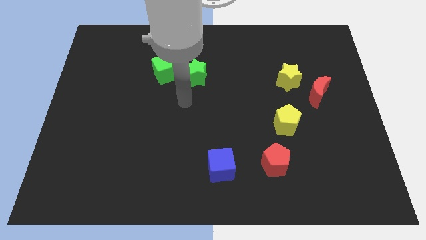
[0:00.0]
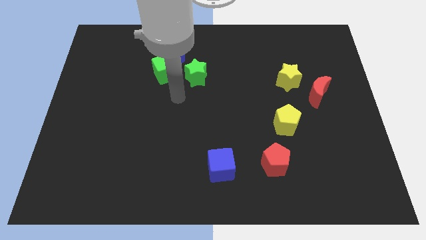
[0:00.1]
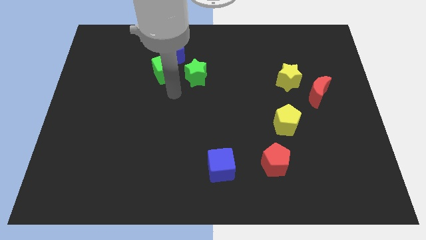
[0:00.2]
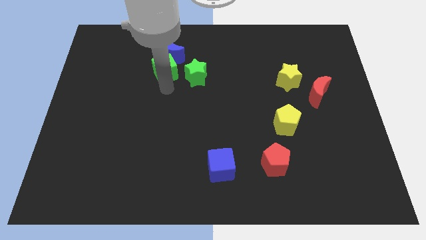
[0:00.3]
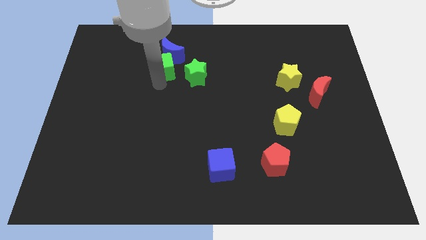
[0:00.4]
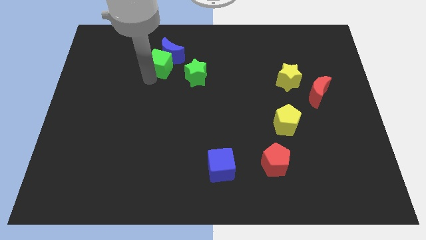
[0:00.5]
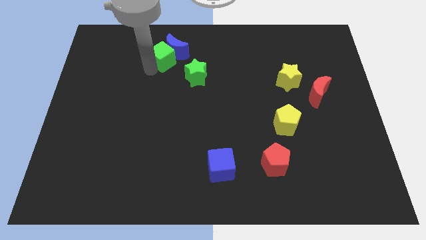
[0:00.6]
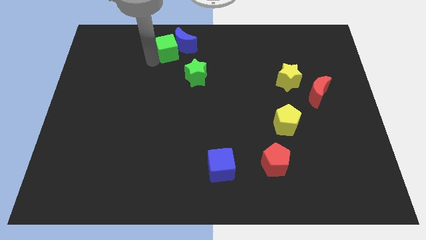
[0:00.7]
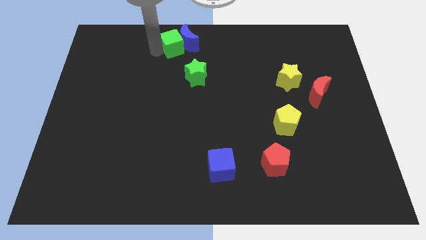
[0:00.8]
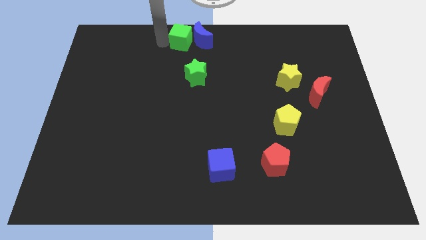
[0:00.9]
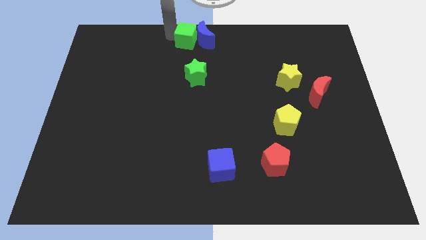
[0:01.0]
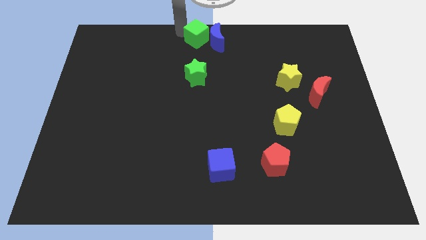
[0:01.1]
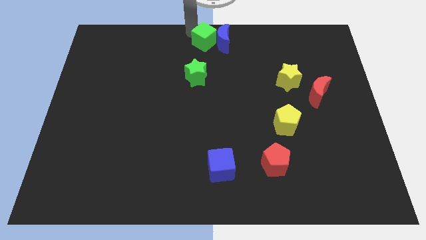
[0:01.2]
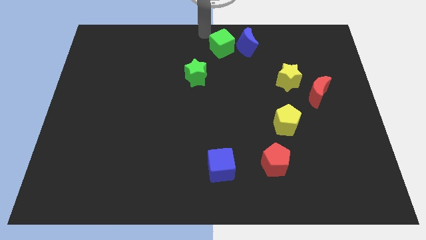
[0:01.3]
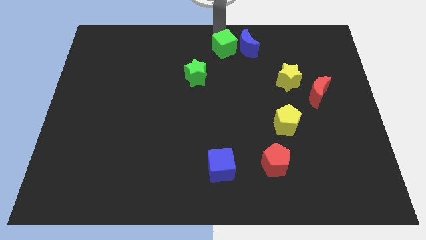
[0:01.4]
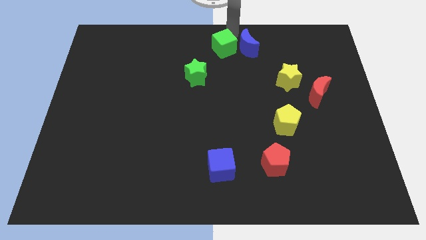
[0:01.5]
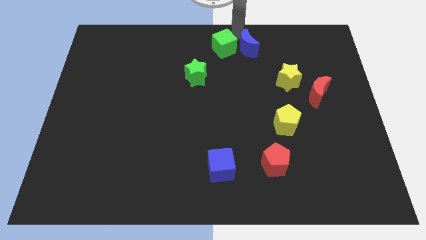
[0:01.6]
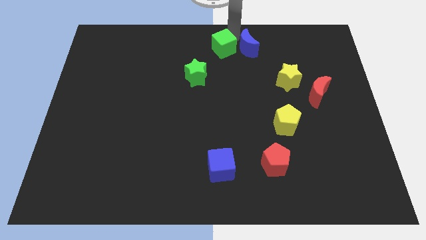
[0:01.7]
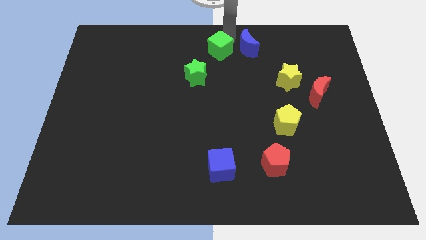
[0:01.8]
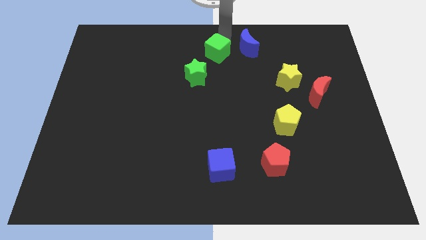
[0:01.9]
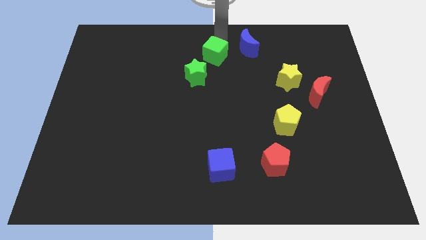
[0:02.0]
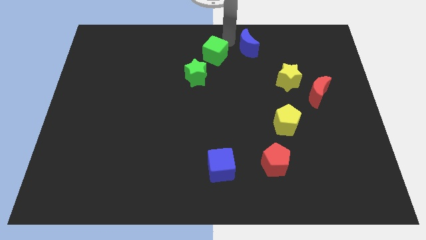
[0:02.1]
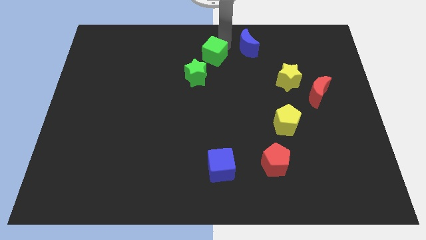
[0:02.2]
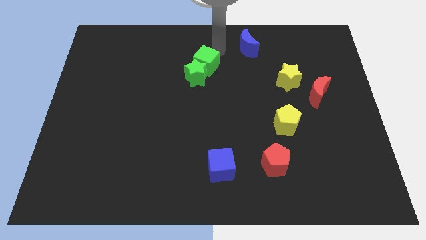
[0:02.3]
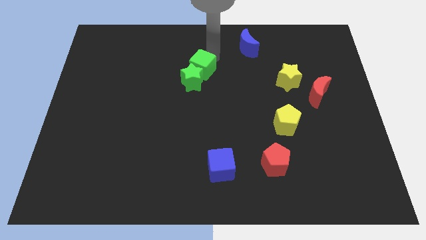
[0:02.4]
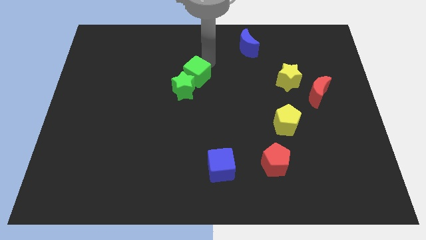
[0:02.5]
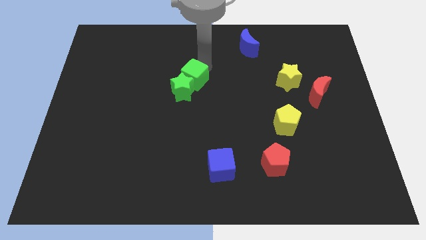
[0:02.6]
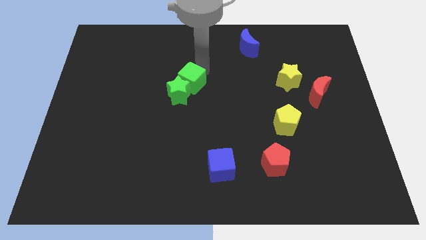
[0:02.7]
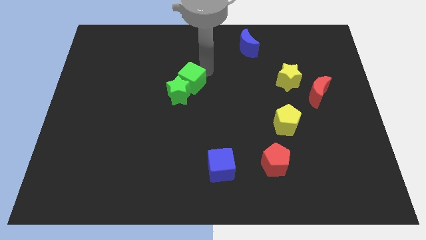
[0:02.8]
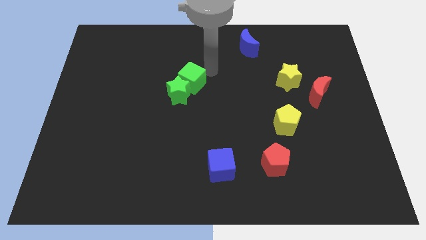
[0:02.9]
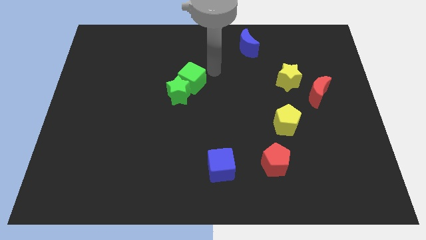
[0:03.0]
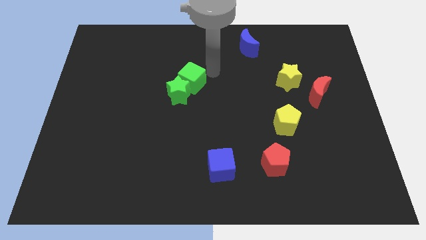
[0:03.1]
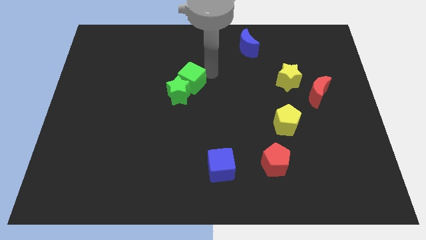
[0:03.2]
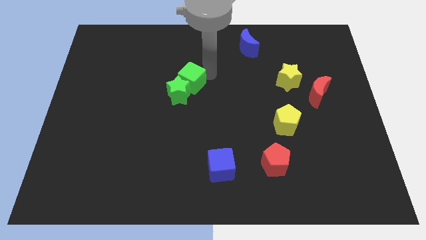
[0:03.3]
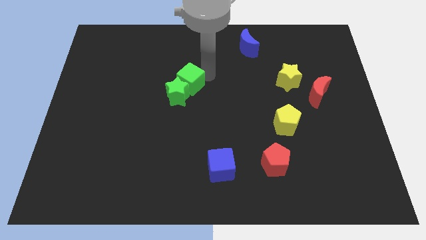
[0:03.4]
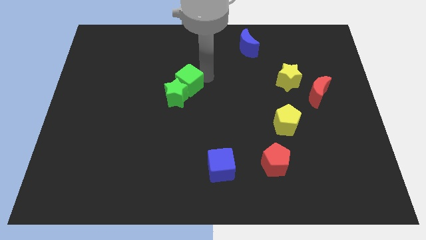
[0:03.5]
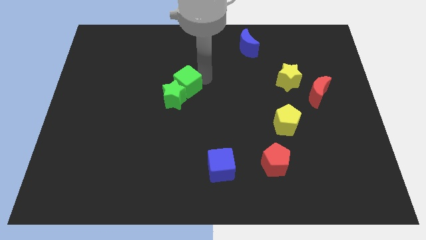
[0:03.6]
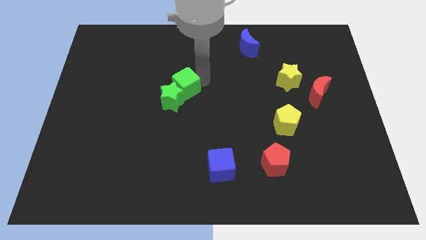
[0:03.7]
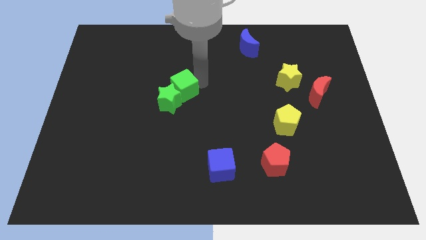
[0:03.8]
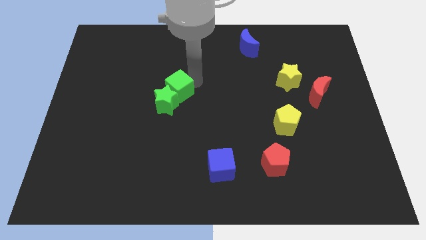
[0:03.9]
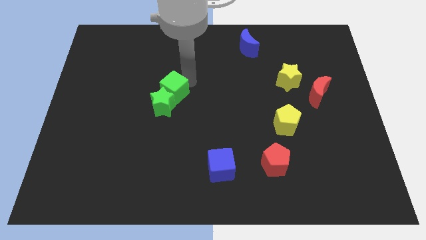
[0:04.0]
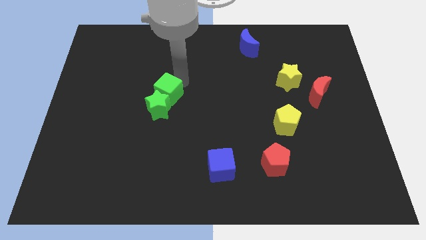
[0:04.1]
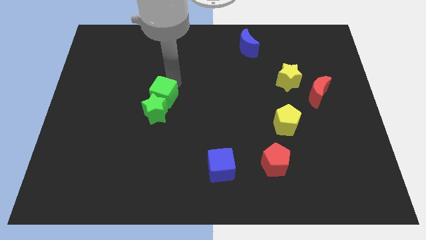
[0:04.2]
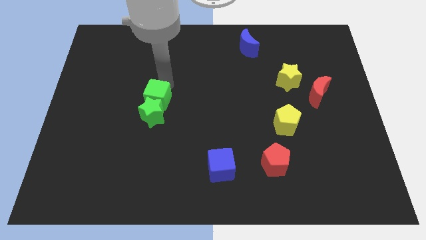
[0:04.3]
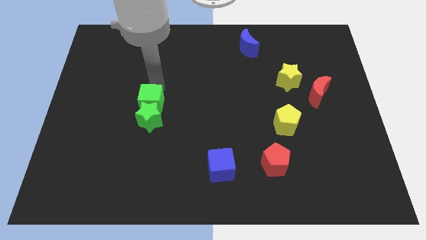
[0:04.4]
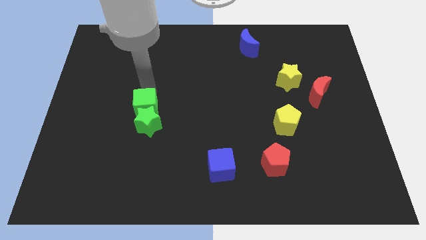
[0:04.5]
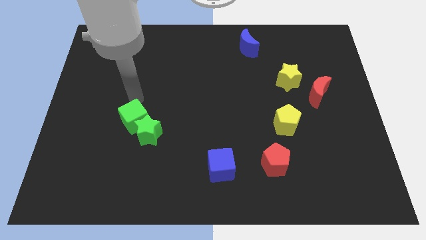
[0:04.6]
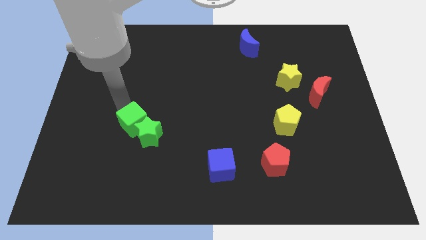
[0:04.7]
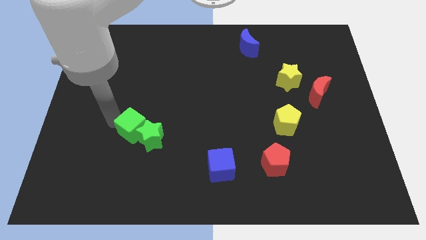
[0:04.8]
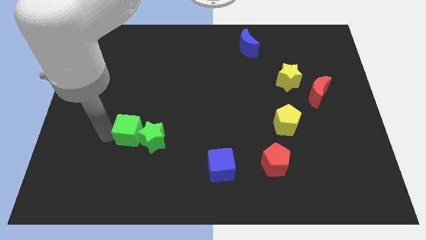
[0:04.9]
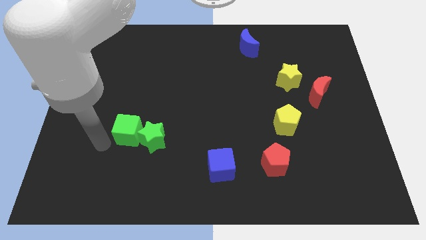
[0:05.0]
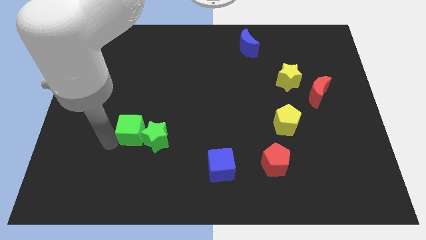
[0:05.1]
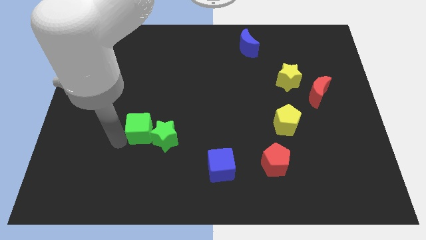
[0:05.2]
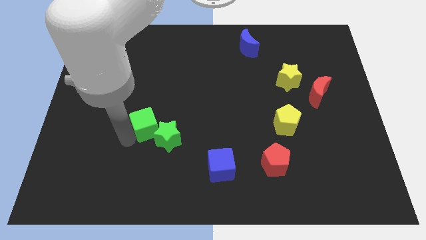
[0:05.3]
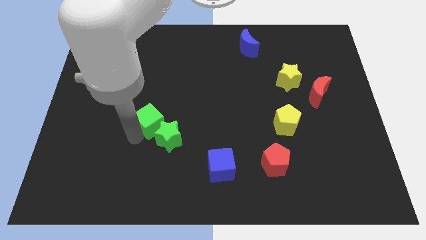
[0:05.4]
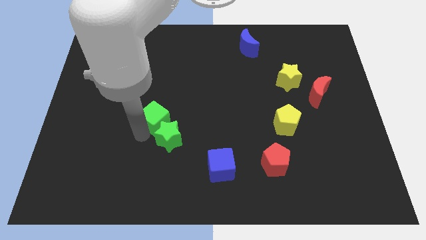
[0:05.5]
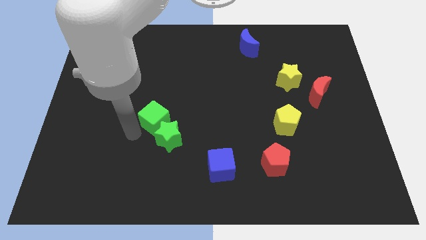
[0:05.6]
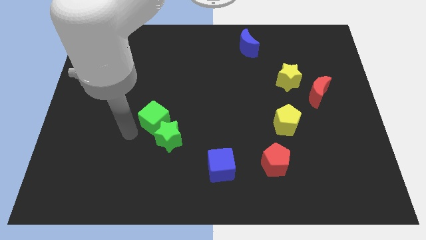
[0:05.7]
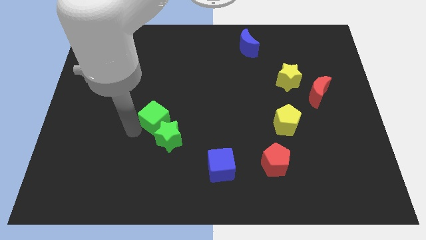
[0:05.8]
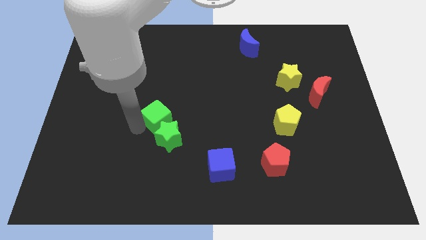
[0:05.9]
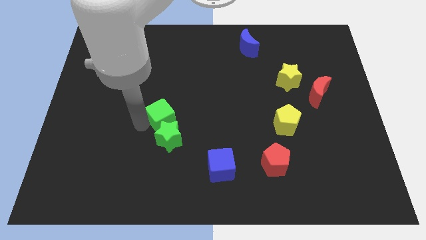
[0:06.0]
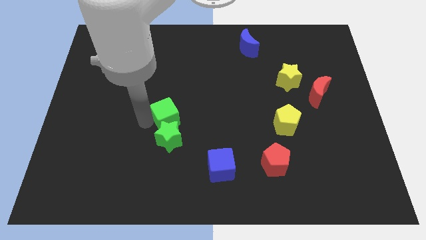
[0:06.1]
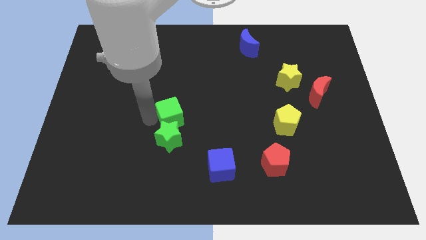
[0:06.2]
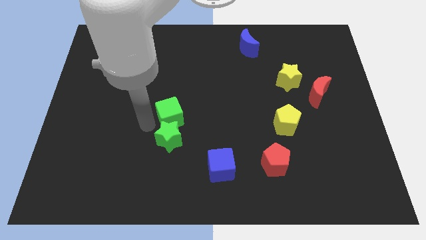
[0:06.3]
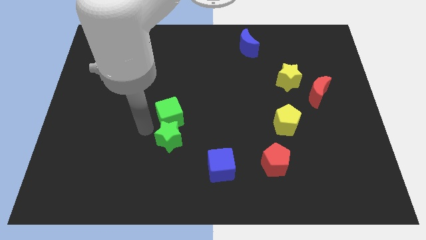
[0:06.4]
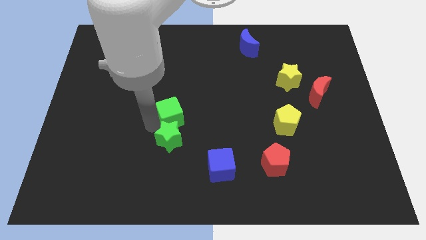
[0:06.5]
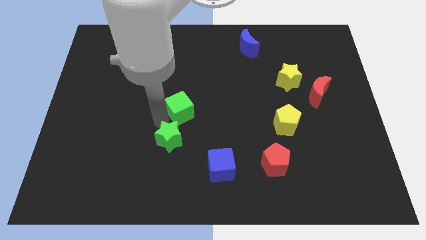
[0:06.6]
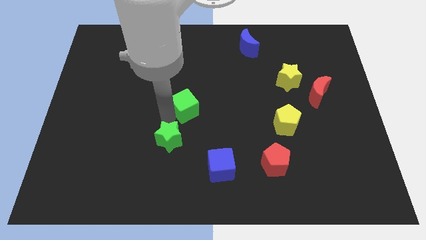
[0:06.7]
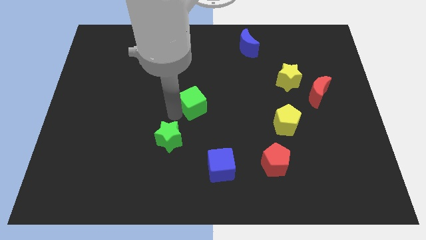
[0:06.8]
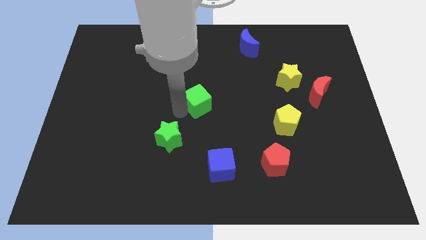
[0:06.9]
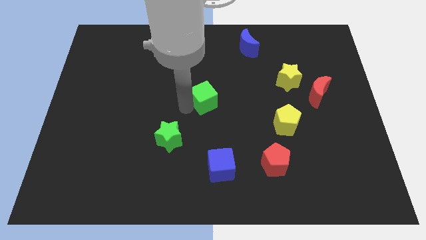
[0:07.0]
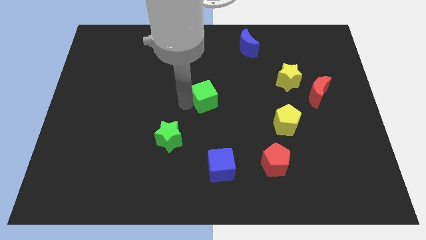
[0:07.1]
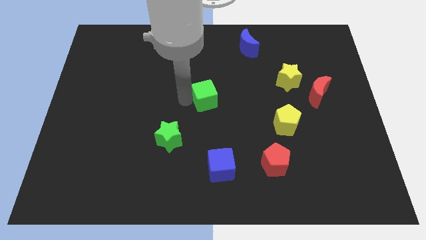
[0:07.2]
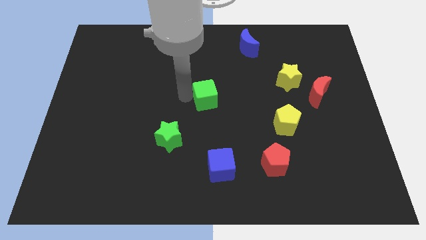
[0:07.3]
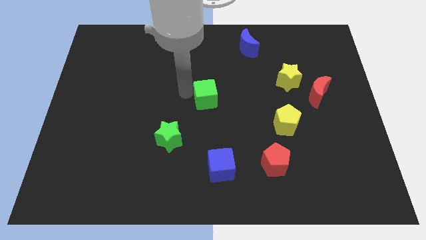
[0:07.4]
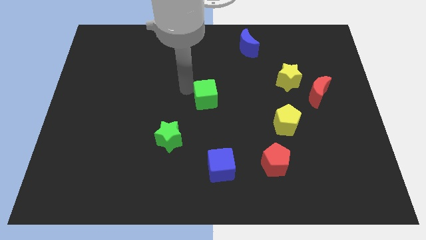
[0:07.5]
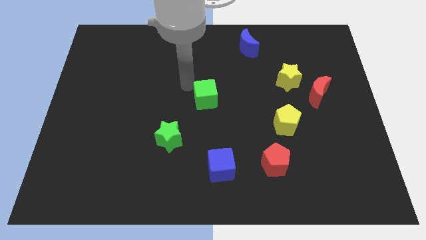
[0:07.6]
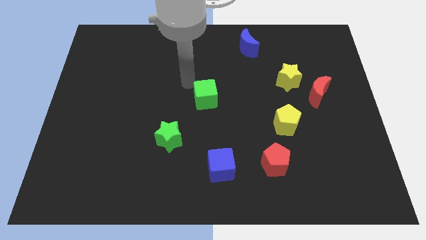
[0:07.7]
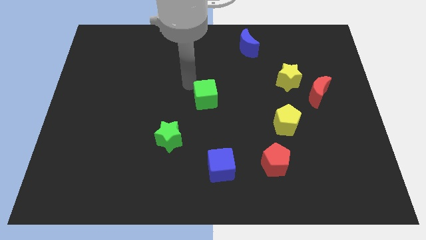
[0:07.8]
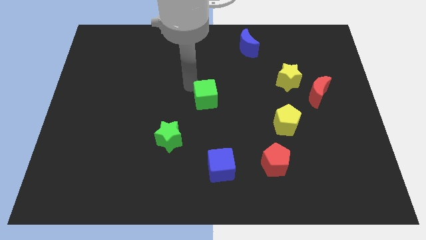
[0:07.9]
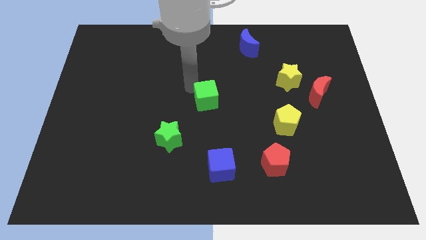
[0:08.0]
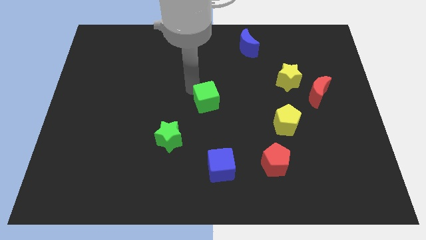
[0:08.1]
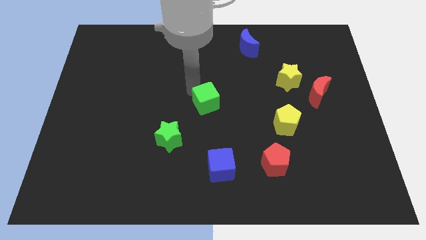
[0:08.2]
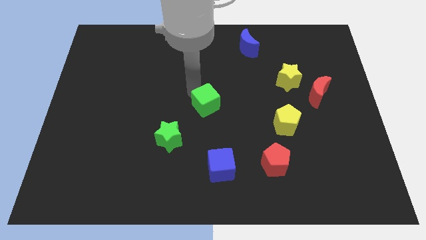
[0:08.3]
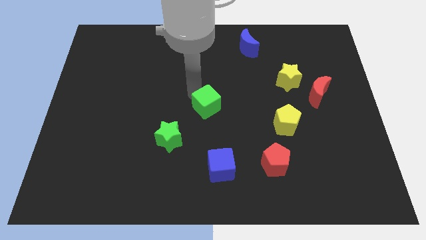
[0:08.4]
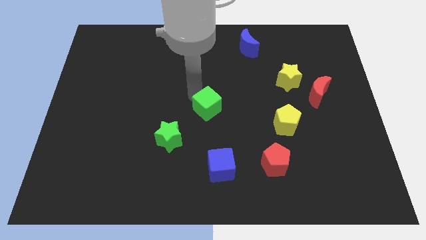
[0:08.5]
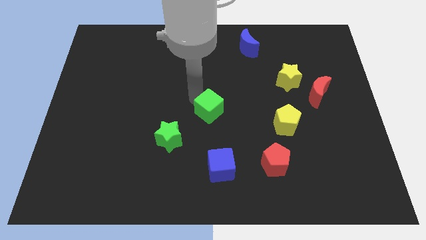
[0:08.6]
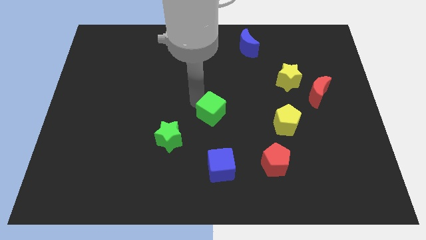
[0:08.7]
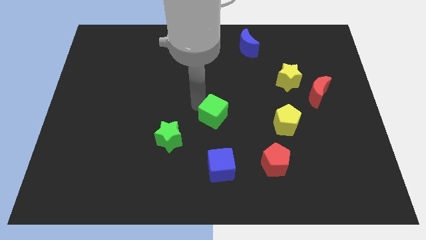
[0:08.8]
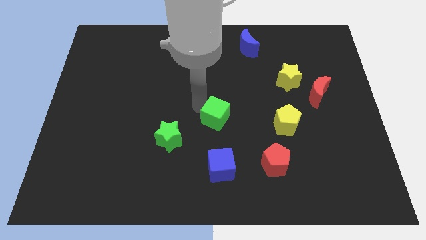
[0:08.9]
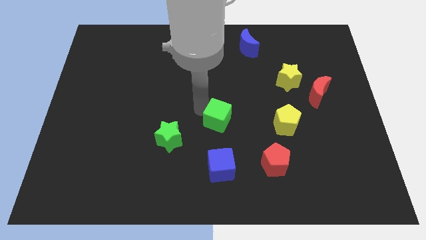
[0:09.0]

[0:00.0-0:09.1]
push the green cube downwards and to the right
